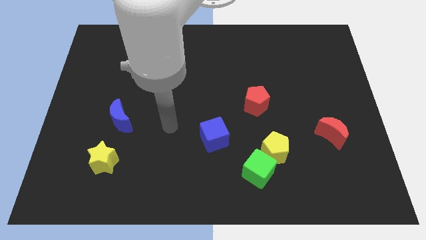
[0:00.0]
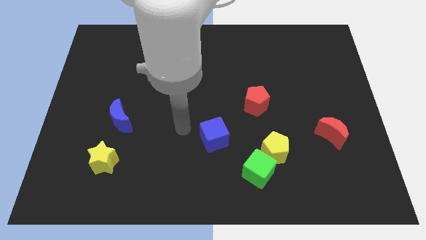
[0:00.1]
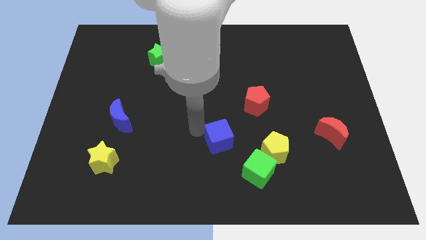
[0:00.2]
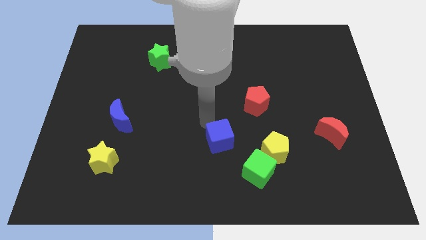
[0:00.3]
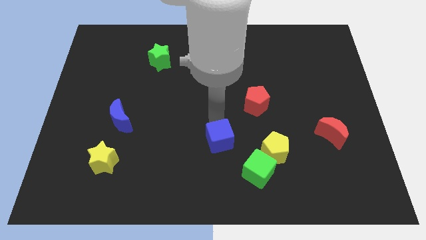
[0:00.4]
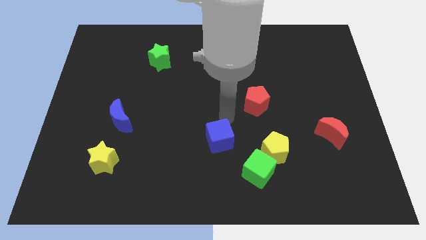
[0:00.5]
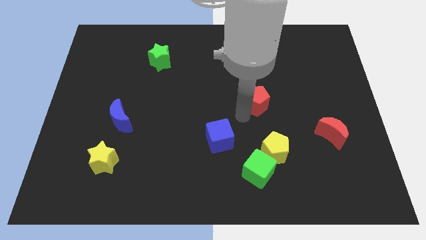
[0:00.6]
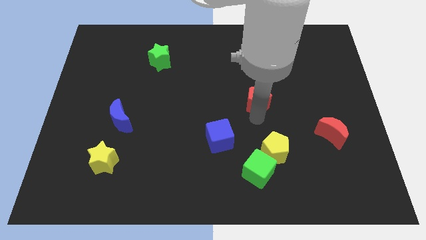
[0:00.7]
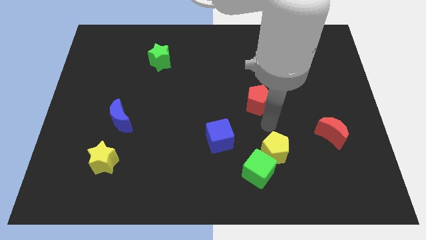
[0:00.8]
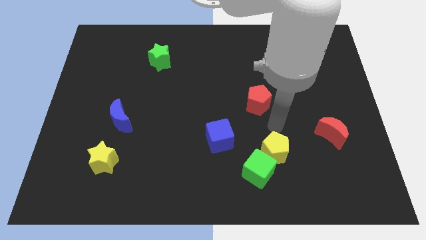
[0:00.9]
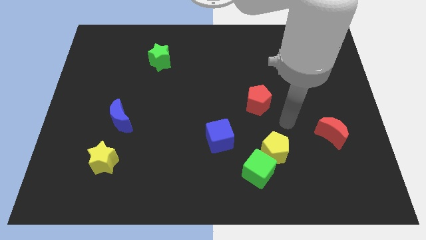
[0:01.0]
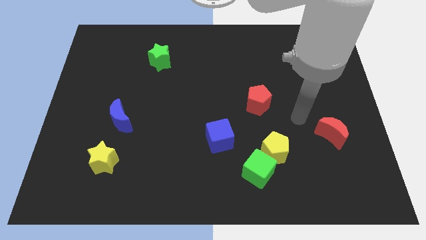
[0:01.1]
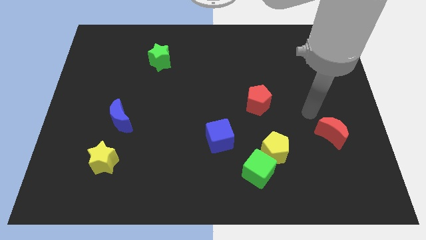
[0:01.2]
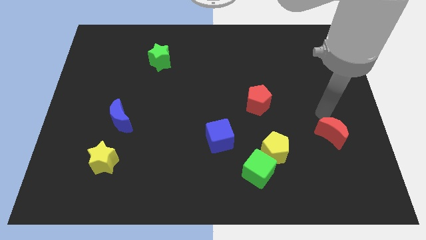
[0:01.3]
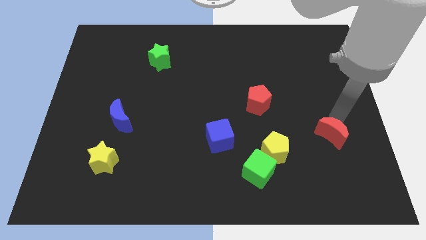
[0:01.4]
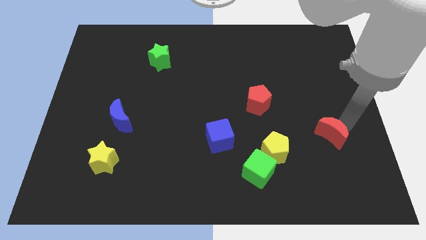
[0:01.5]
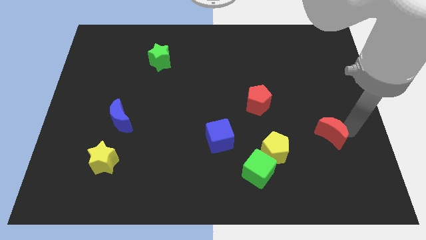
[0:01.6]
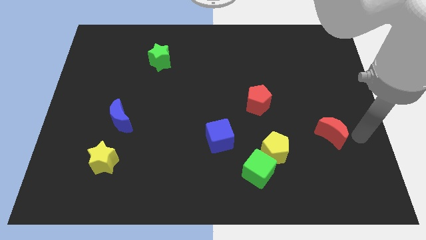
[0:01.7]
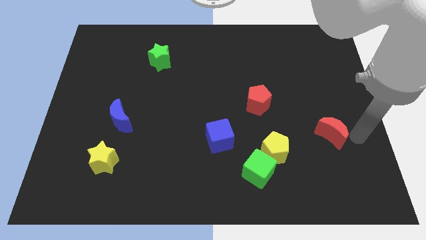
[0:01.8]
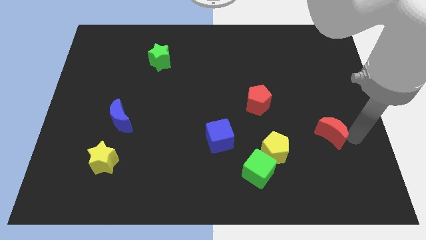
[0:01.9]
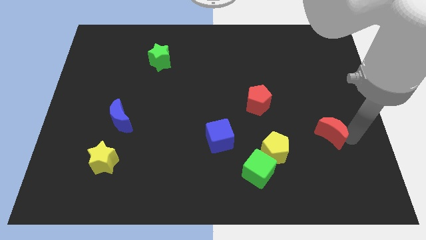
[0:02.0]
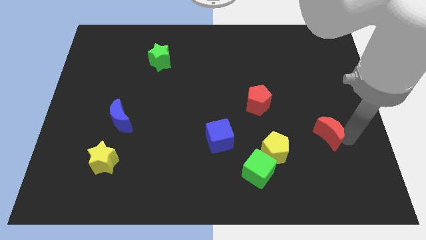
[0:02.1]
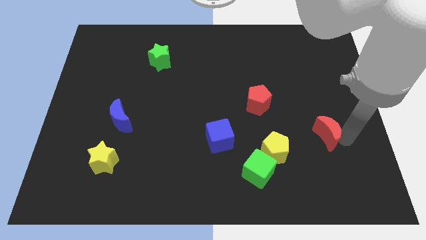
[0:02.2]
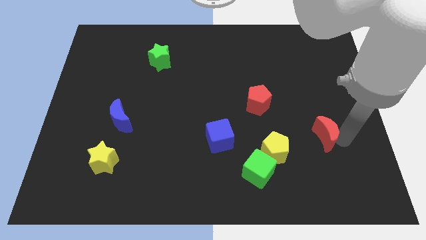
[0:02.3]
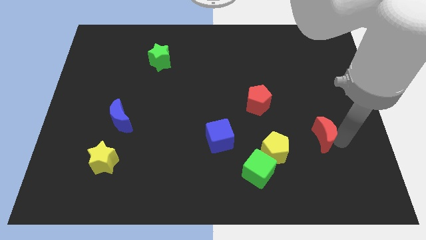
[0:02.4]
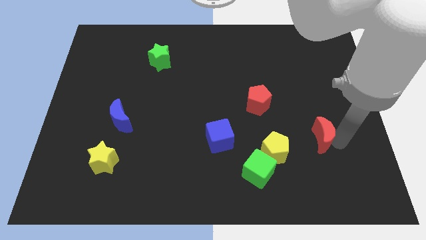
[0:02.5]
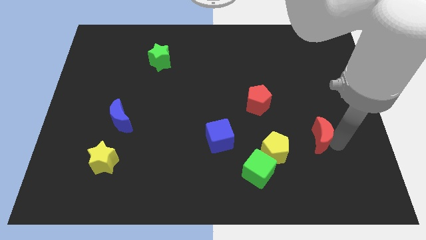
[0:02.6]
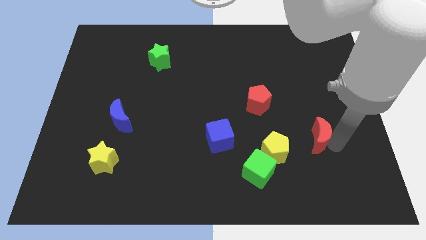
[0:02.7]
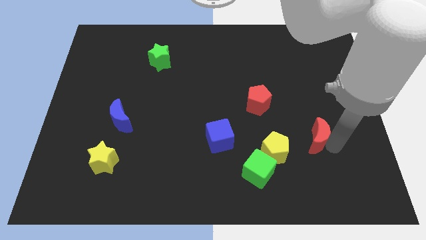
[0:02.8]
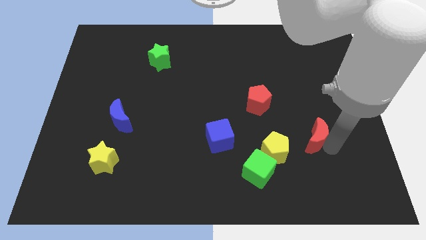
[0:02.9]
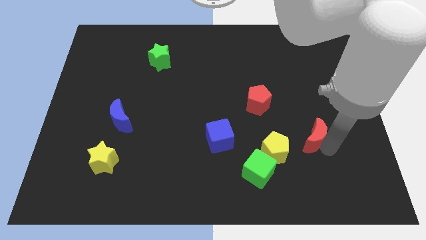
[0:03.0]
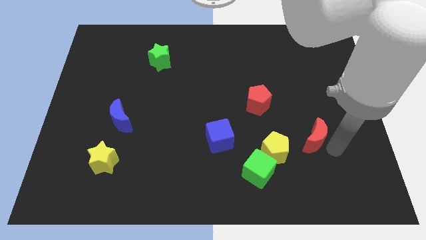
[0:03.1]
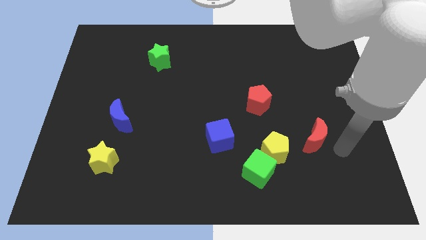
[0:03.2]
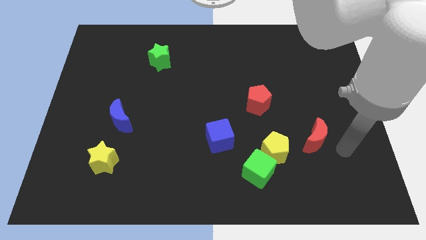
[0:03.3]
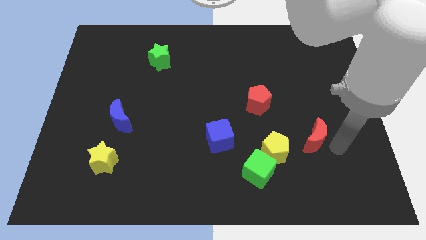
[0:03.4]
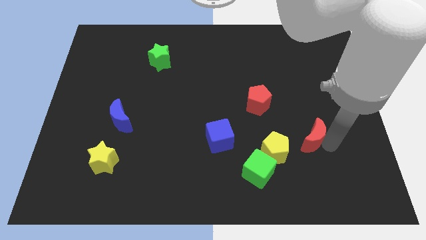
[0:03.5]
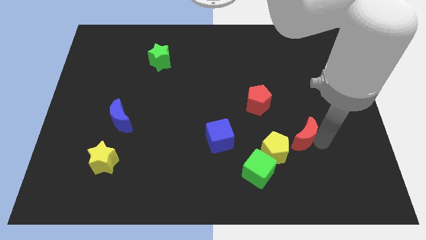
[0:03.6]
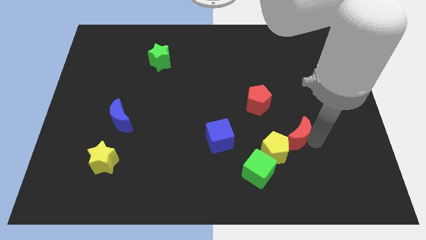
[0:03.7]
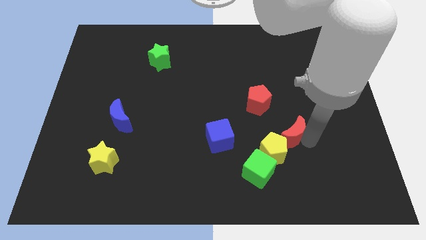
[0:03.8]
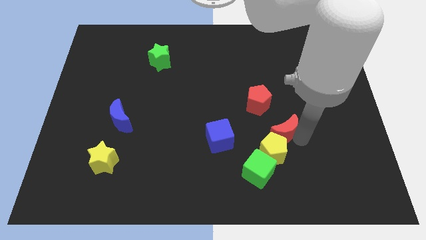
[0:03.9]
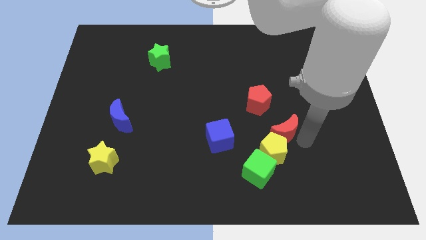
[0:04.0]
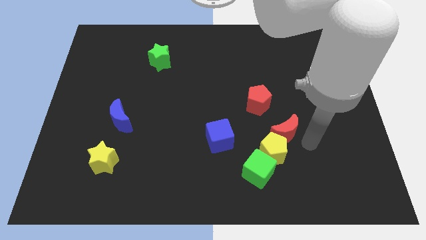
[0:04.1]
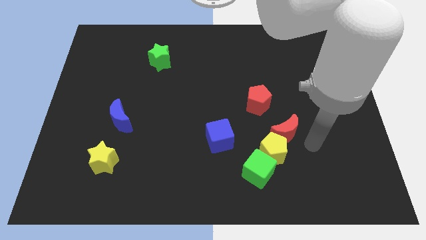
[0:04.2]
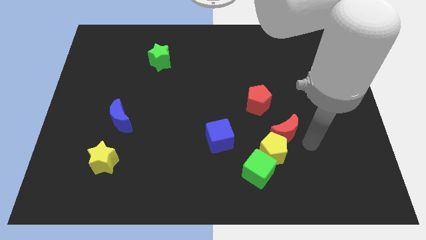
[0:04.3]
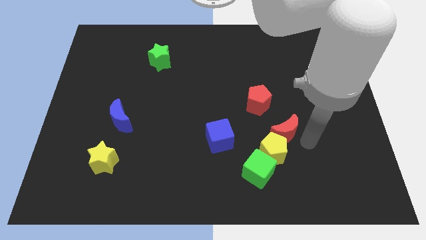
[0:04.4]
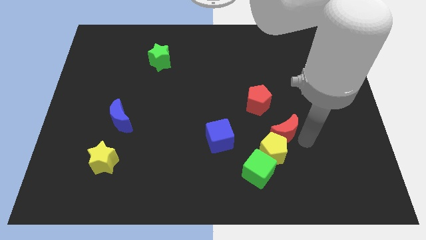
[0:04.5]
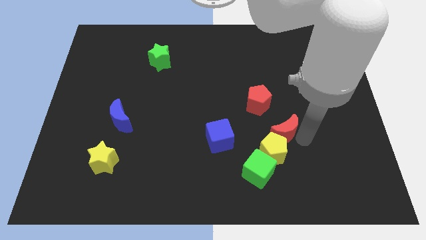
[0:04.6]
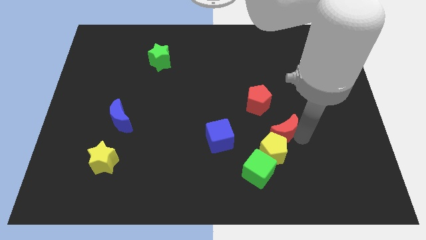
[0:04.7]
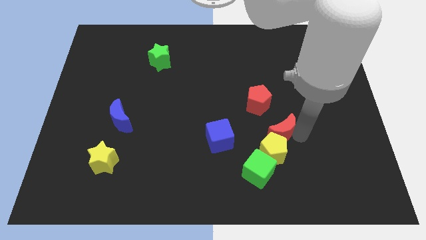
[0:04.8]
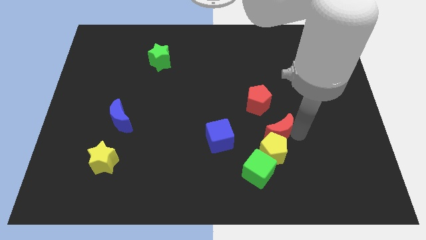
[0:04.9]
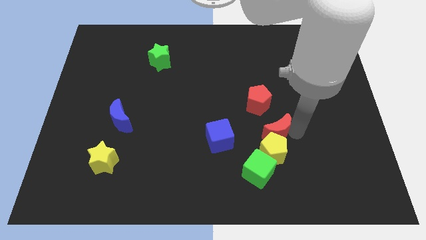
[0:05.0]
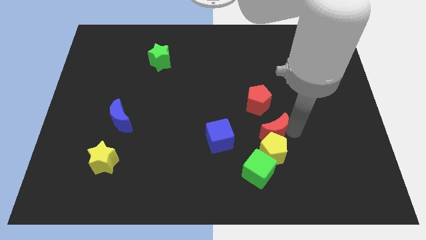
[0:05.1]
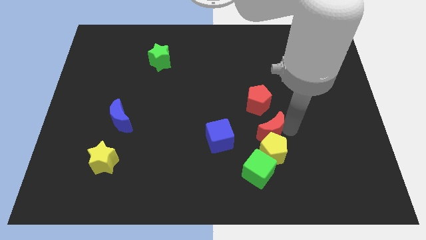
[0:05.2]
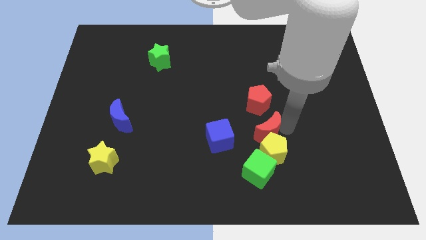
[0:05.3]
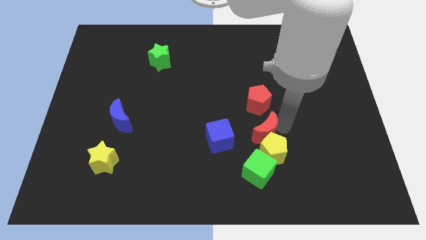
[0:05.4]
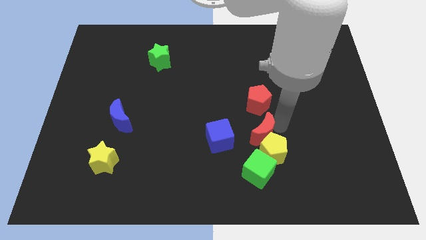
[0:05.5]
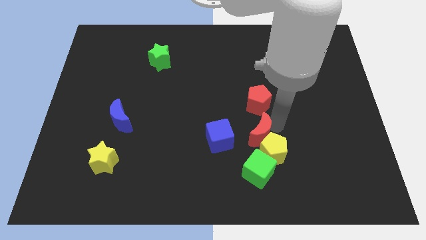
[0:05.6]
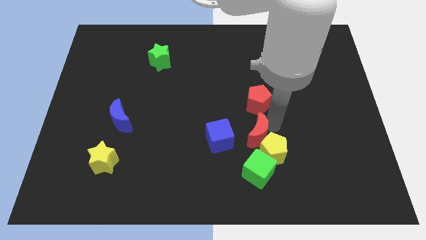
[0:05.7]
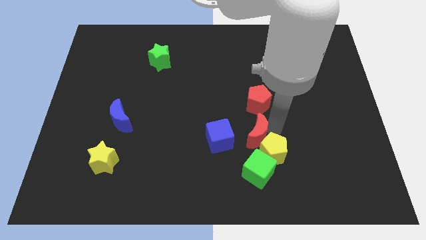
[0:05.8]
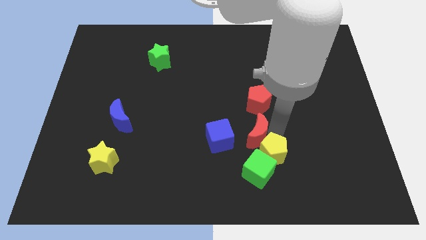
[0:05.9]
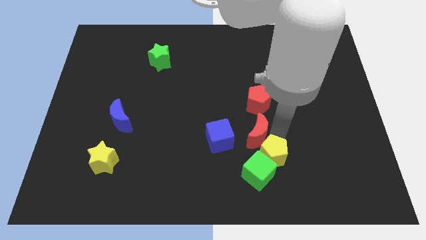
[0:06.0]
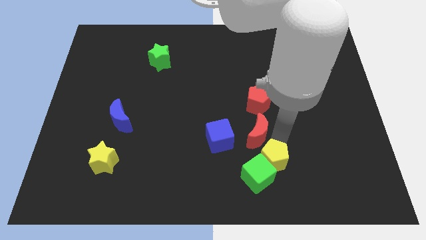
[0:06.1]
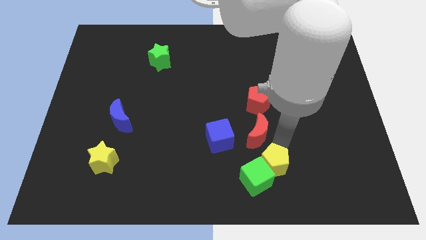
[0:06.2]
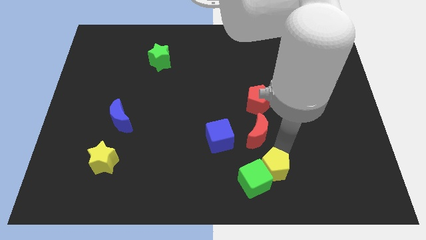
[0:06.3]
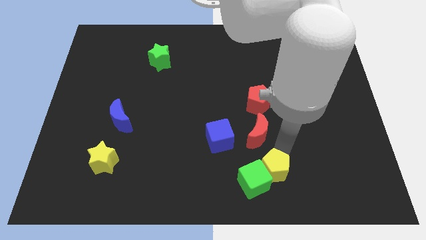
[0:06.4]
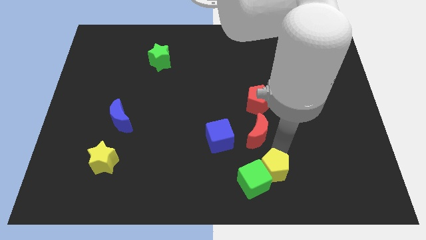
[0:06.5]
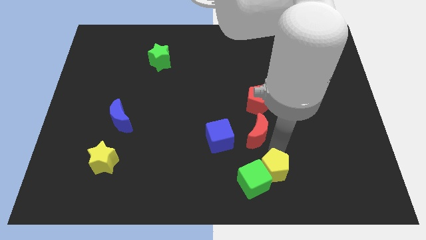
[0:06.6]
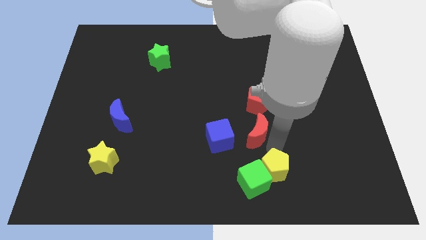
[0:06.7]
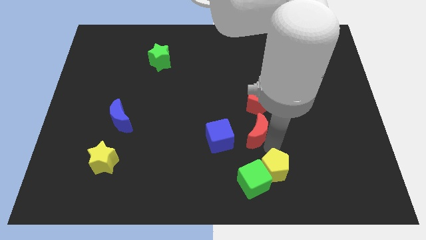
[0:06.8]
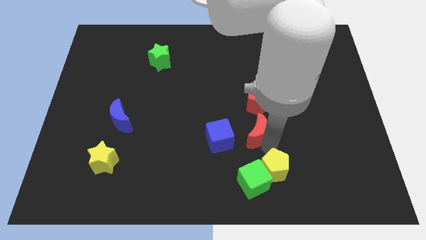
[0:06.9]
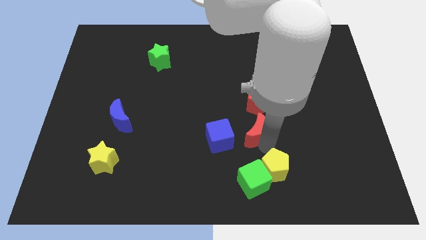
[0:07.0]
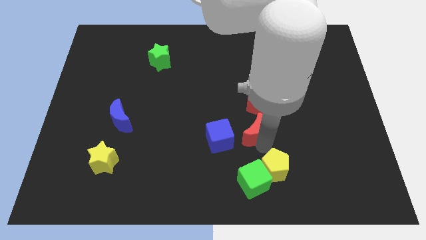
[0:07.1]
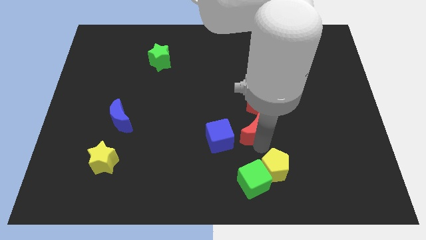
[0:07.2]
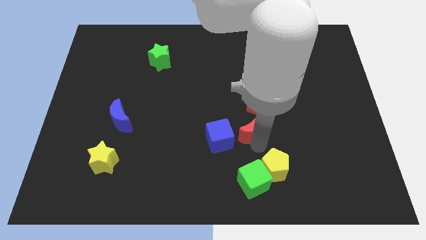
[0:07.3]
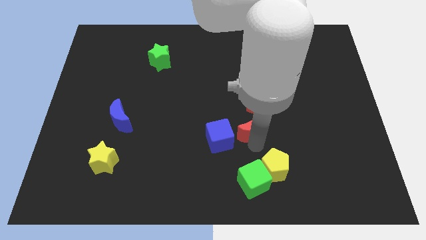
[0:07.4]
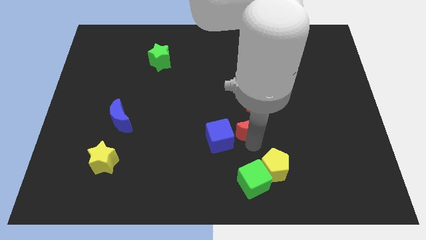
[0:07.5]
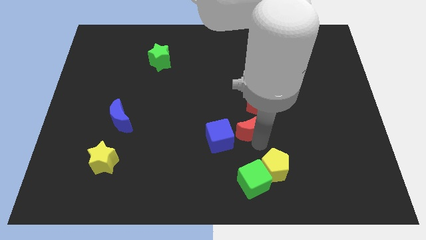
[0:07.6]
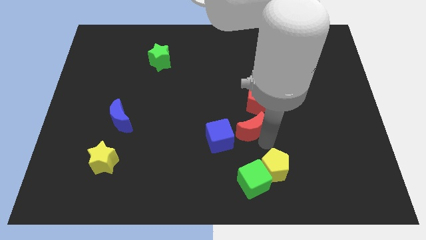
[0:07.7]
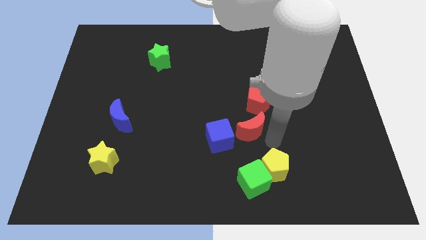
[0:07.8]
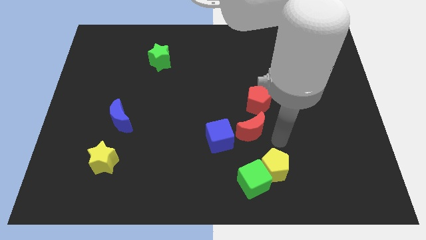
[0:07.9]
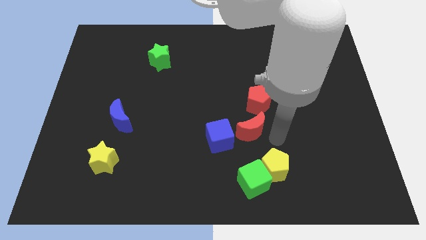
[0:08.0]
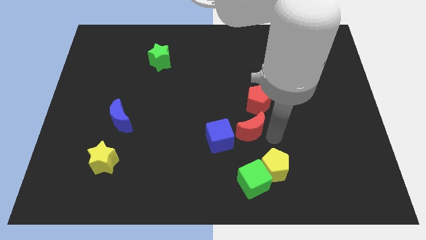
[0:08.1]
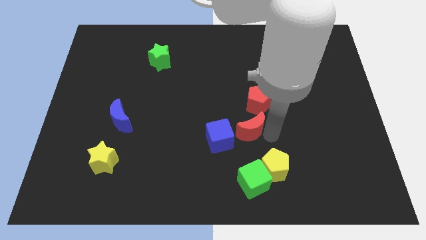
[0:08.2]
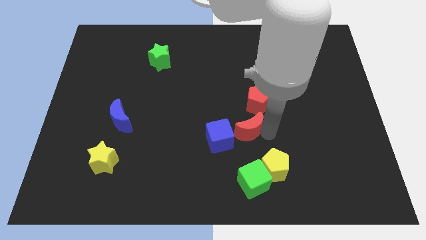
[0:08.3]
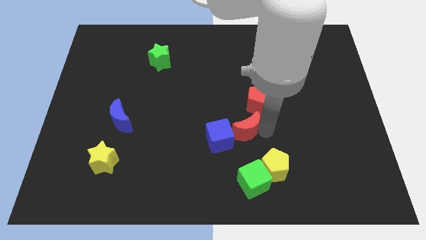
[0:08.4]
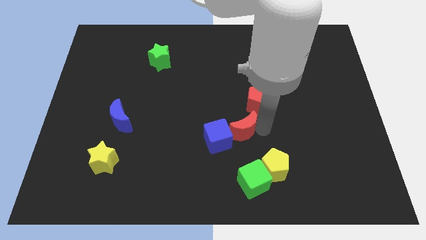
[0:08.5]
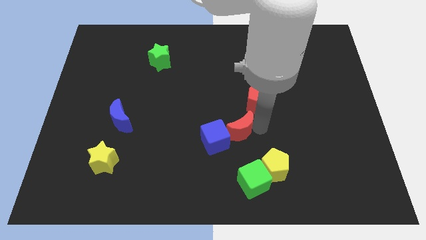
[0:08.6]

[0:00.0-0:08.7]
move the red moon left
